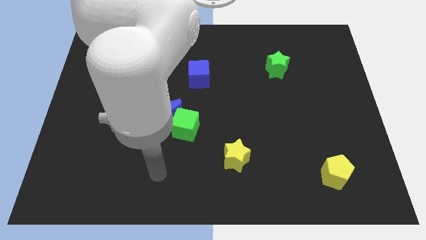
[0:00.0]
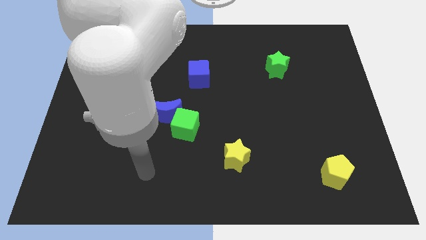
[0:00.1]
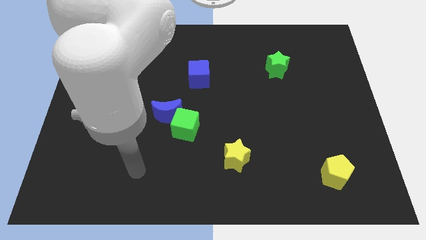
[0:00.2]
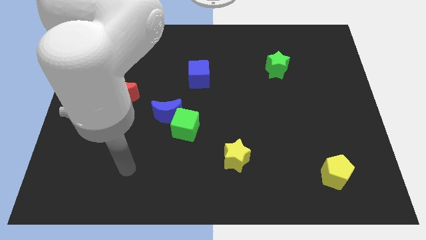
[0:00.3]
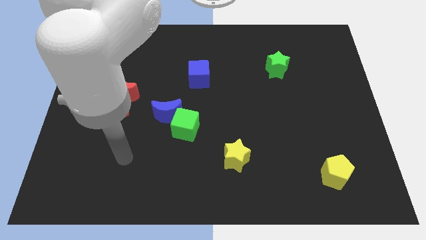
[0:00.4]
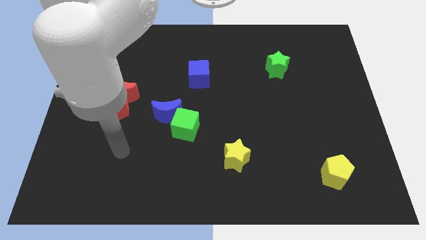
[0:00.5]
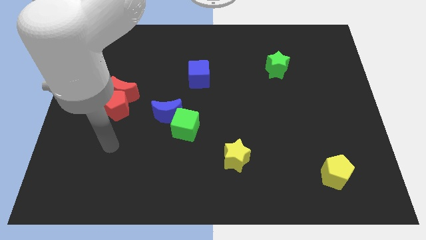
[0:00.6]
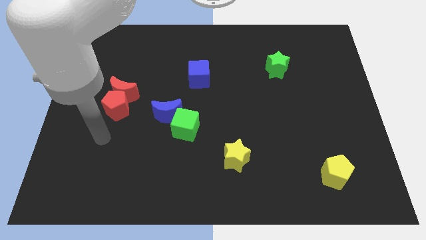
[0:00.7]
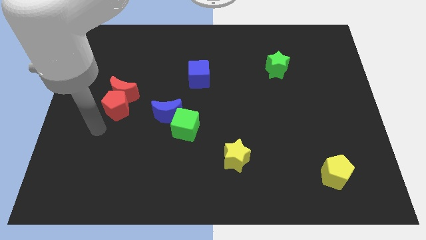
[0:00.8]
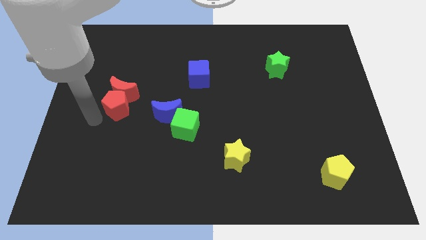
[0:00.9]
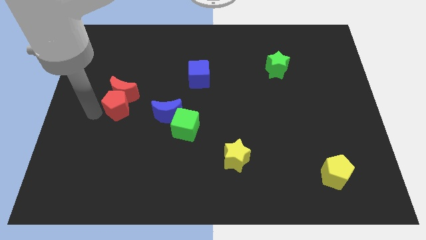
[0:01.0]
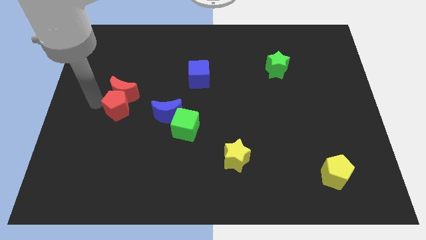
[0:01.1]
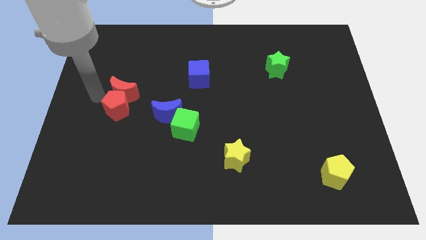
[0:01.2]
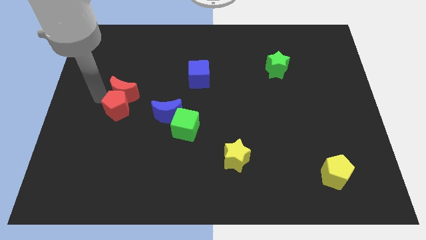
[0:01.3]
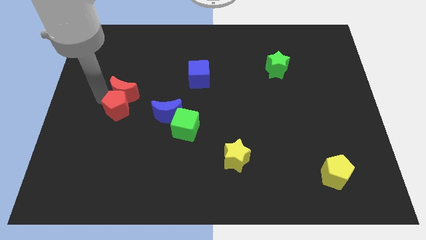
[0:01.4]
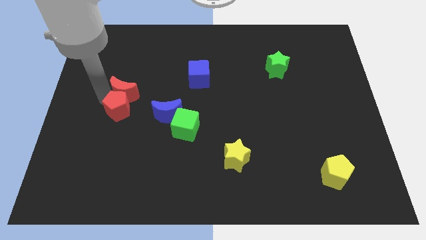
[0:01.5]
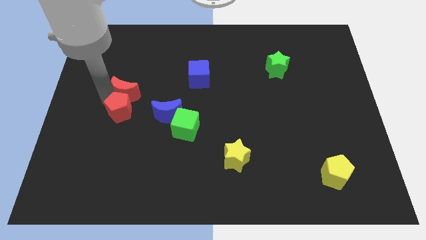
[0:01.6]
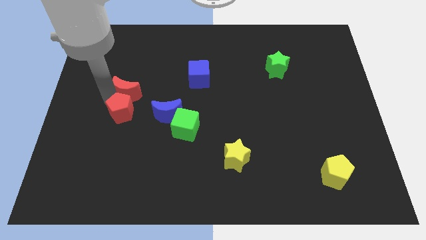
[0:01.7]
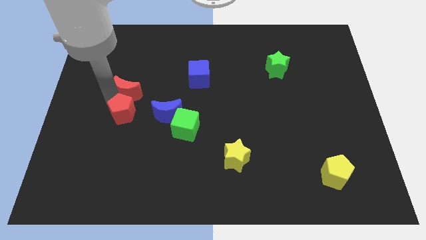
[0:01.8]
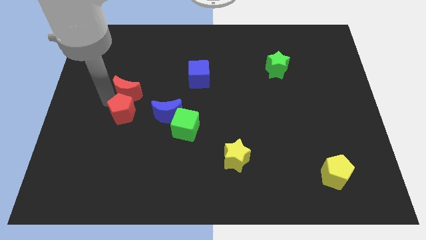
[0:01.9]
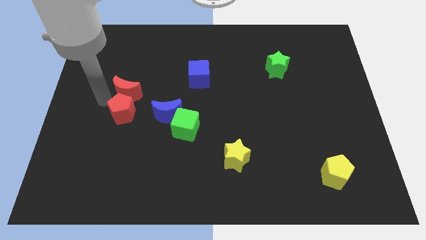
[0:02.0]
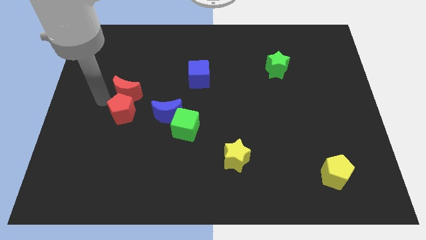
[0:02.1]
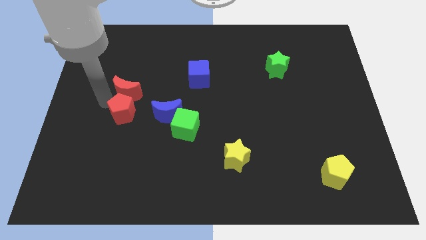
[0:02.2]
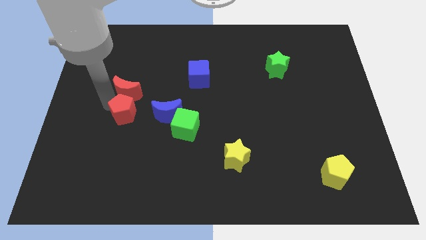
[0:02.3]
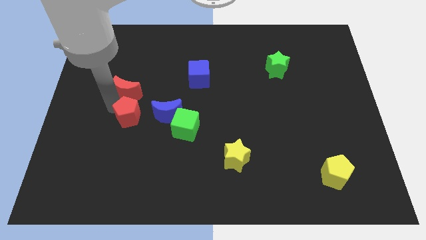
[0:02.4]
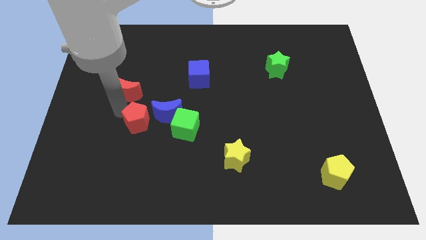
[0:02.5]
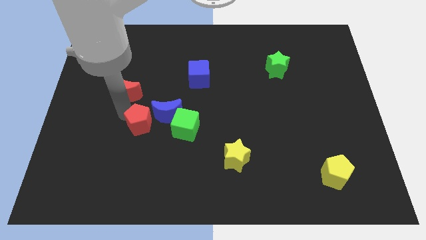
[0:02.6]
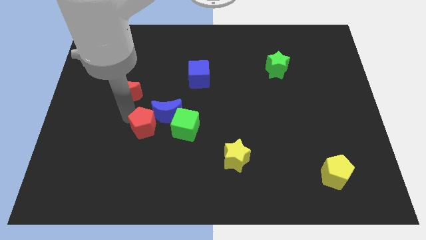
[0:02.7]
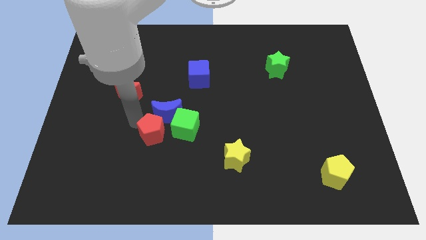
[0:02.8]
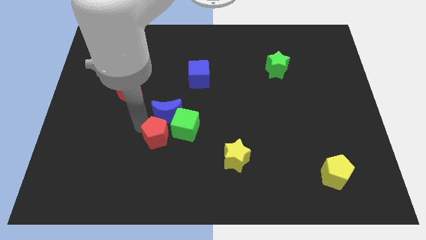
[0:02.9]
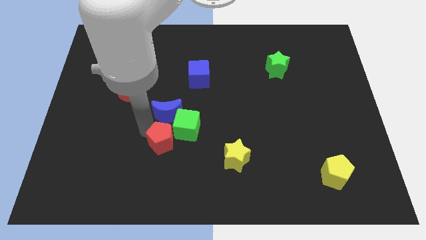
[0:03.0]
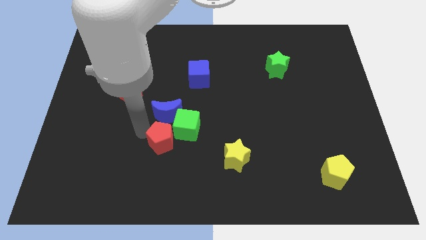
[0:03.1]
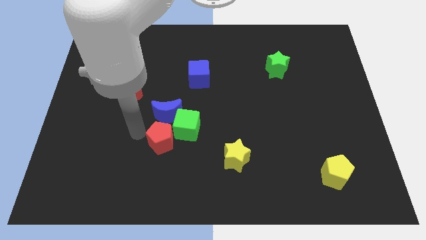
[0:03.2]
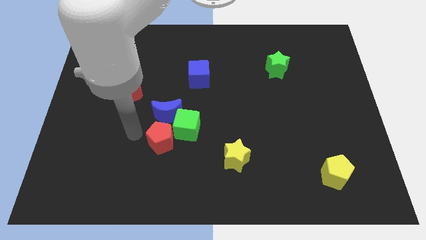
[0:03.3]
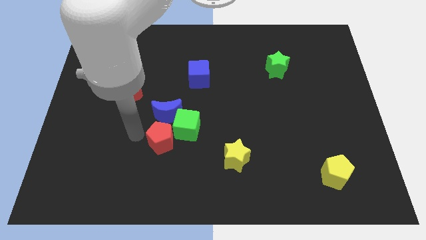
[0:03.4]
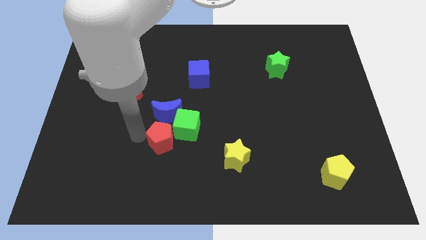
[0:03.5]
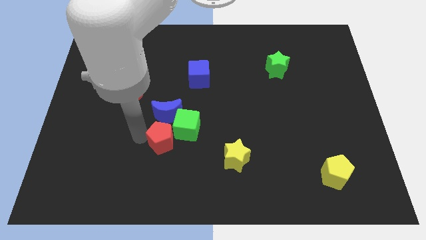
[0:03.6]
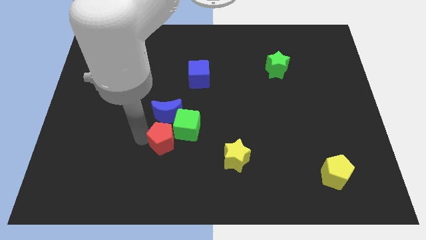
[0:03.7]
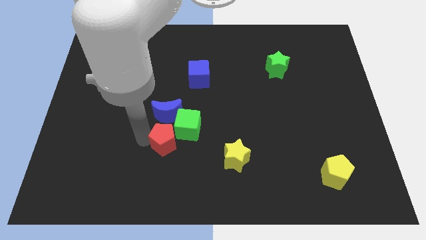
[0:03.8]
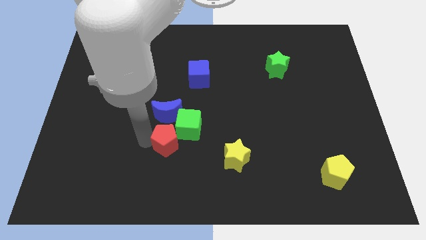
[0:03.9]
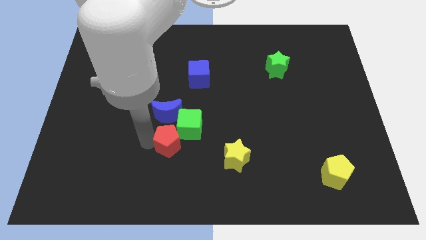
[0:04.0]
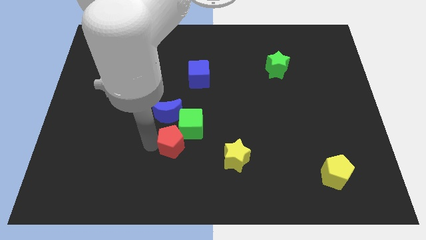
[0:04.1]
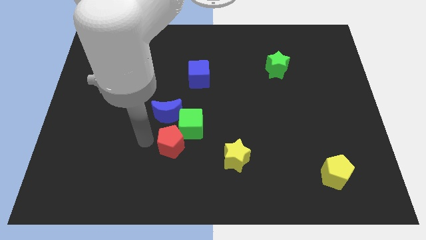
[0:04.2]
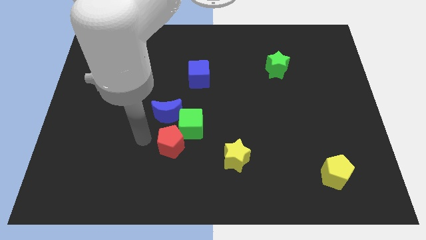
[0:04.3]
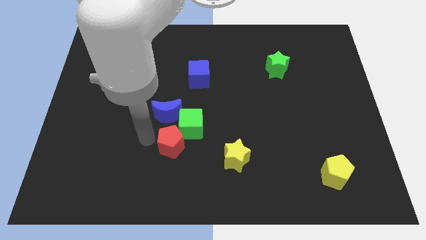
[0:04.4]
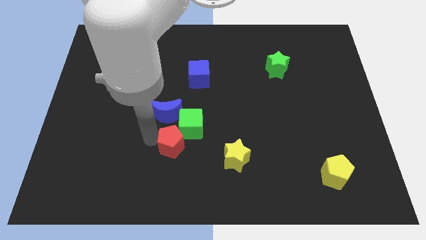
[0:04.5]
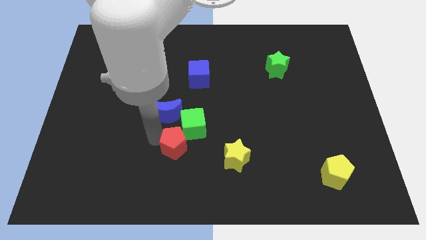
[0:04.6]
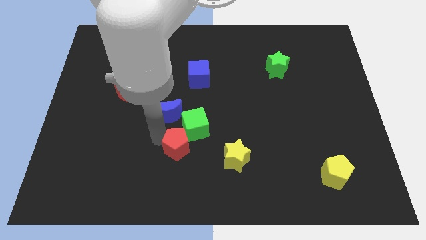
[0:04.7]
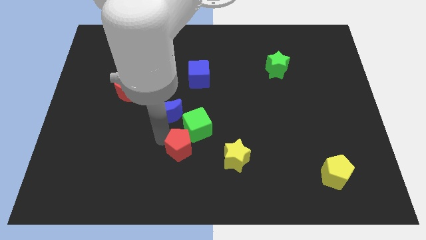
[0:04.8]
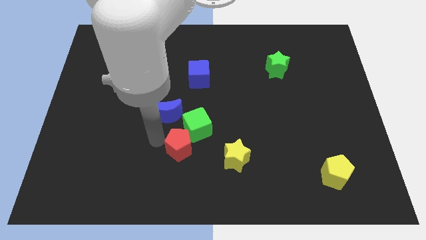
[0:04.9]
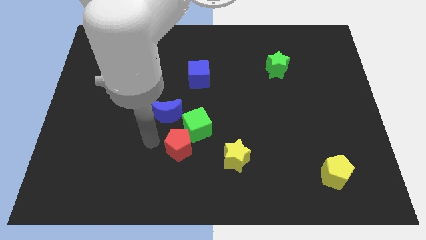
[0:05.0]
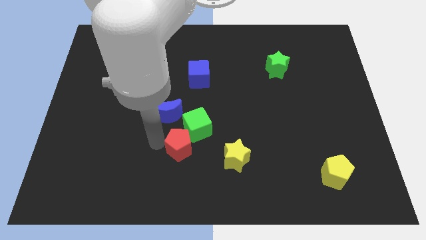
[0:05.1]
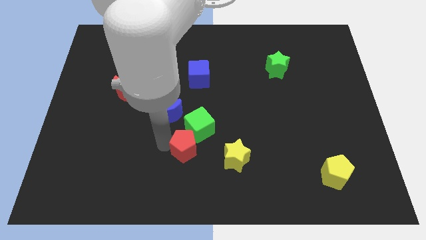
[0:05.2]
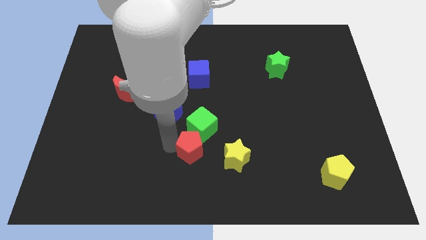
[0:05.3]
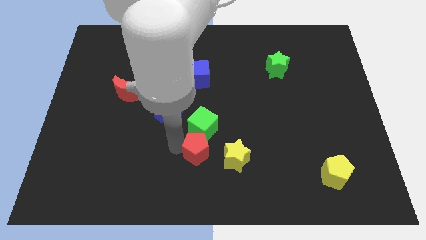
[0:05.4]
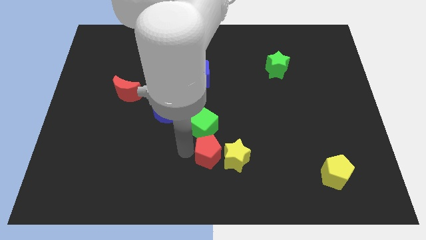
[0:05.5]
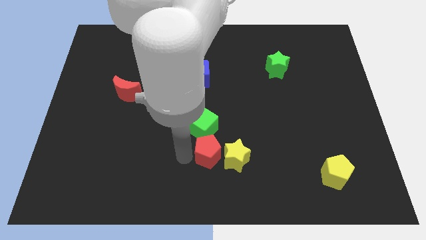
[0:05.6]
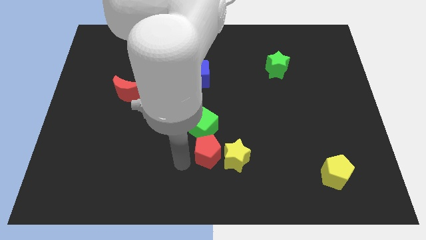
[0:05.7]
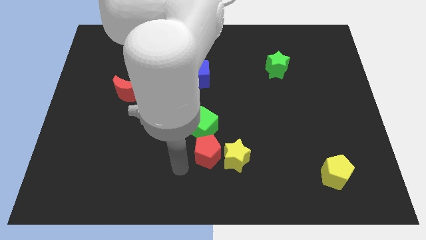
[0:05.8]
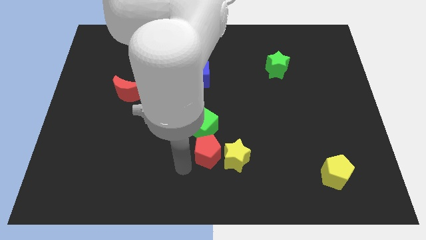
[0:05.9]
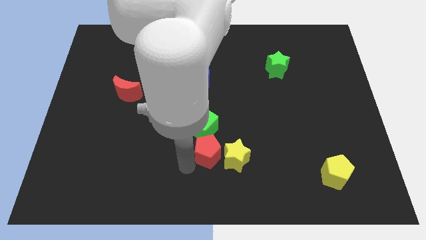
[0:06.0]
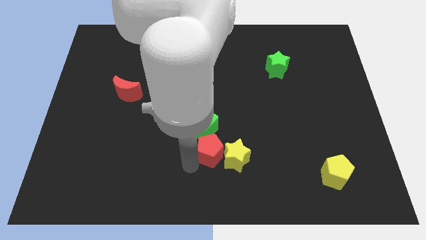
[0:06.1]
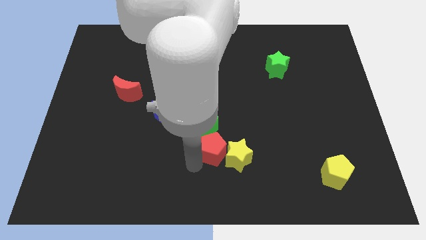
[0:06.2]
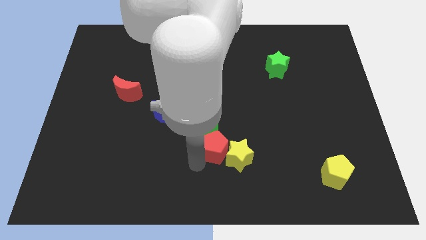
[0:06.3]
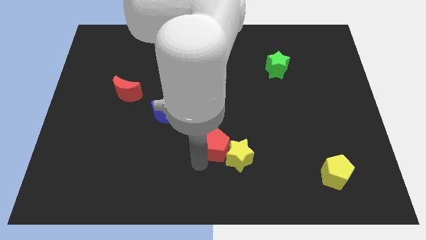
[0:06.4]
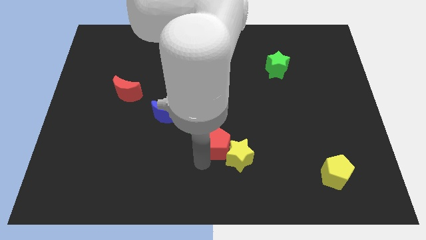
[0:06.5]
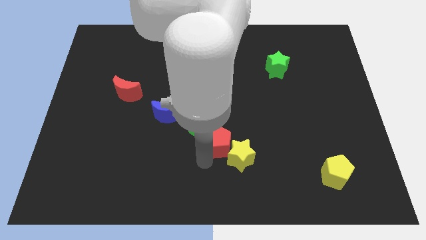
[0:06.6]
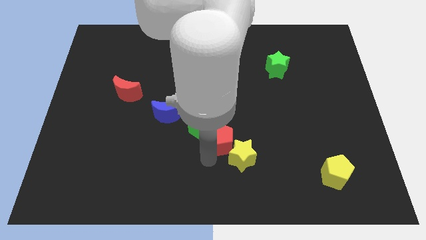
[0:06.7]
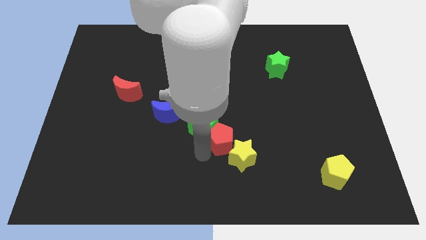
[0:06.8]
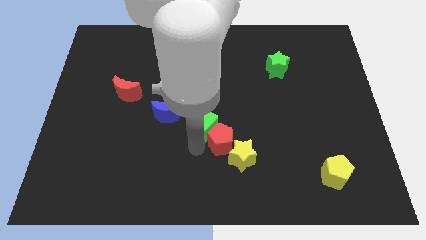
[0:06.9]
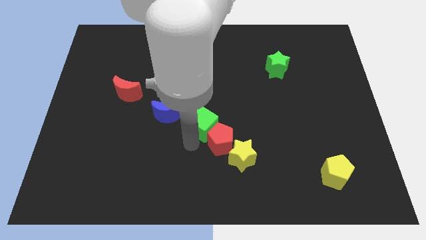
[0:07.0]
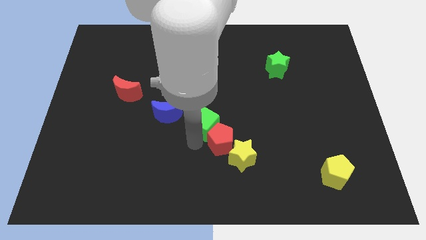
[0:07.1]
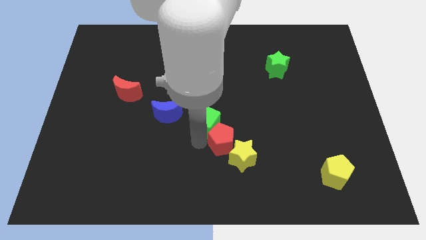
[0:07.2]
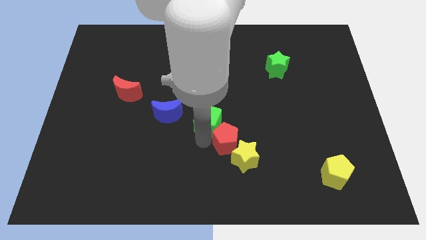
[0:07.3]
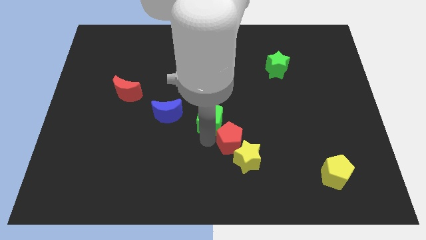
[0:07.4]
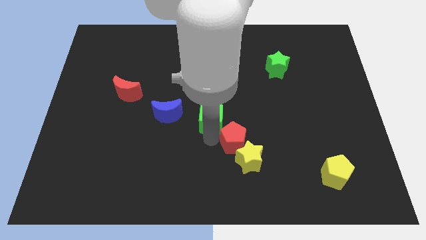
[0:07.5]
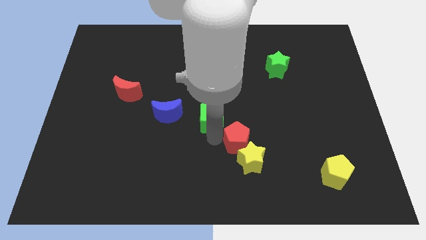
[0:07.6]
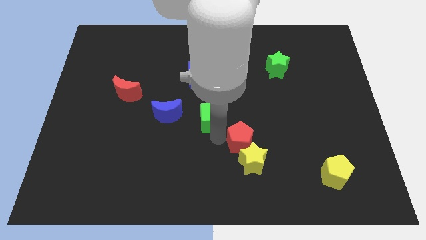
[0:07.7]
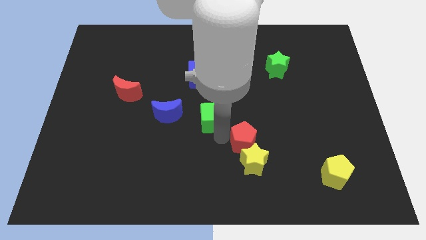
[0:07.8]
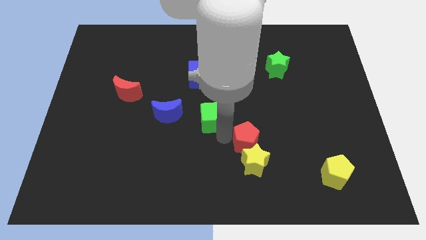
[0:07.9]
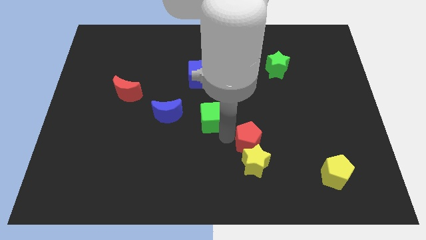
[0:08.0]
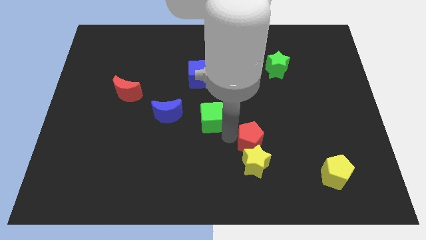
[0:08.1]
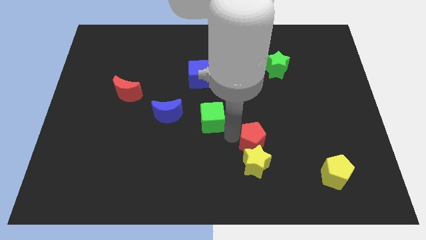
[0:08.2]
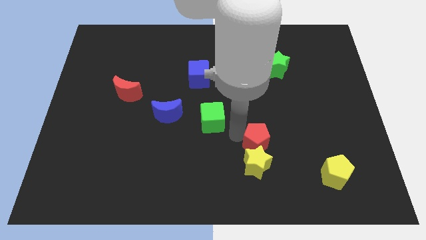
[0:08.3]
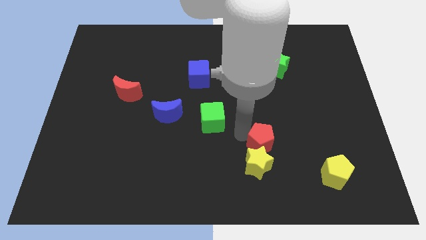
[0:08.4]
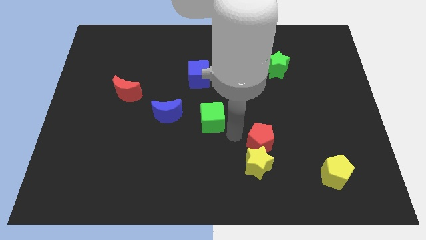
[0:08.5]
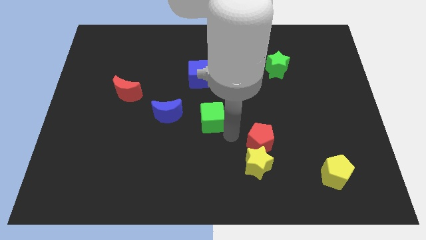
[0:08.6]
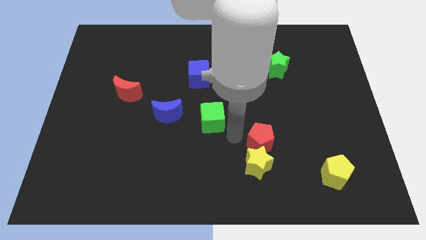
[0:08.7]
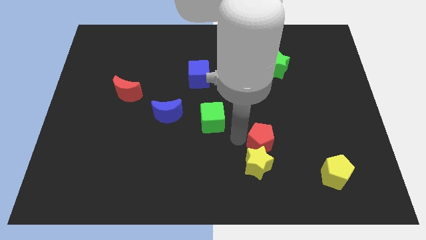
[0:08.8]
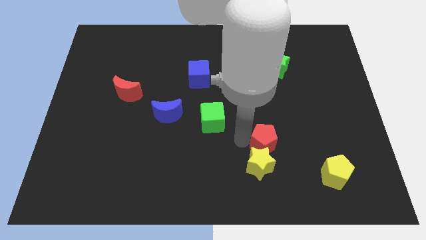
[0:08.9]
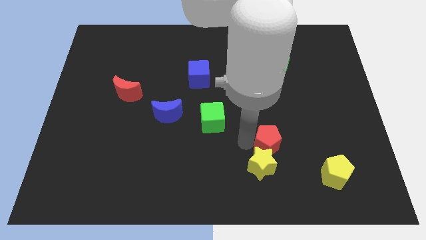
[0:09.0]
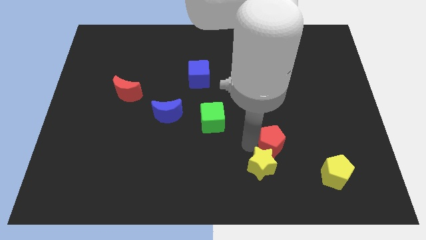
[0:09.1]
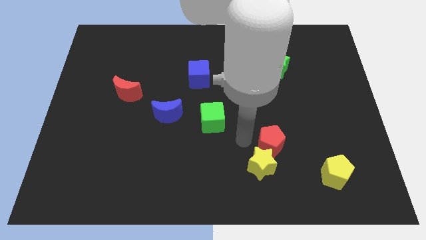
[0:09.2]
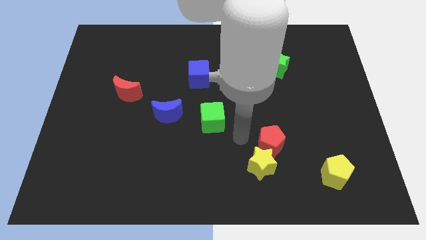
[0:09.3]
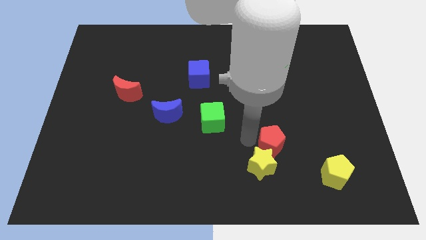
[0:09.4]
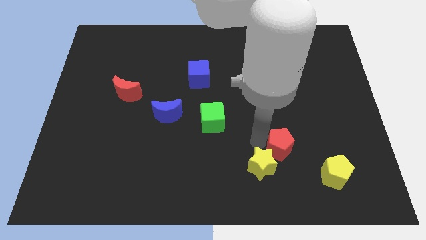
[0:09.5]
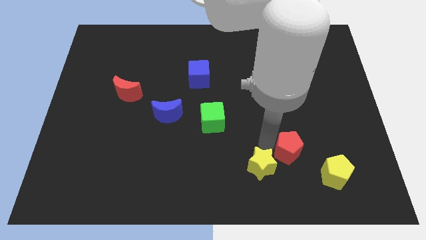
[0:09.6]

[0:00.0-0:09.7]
move the red pentagon diagonally up and to the left of the yellow pentagon
